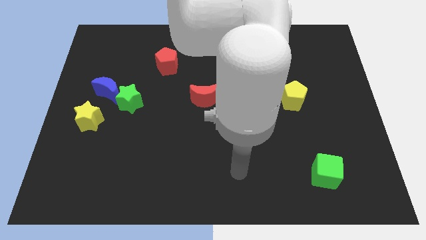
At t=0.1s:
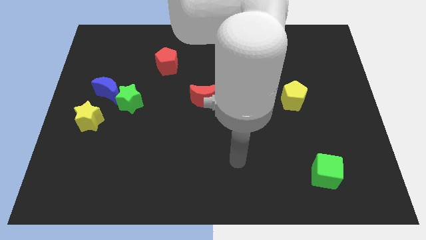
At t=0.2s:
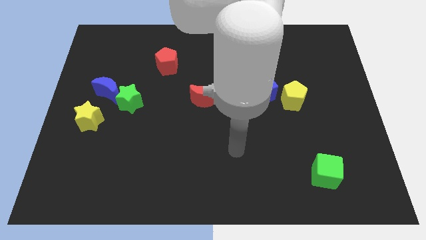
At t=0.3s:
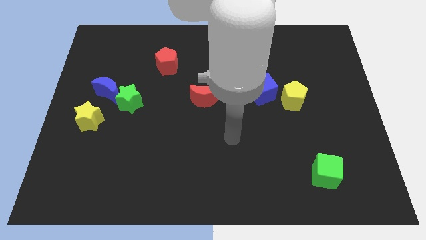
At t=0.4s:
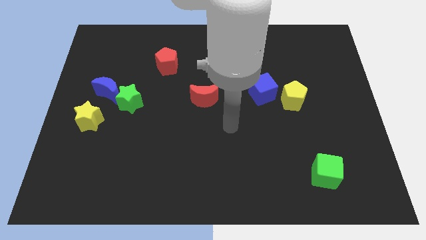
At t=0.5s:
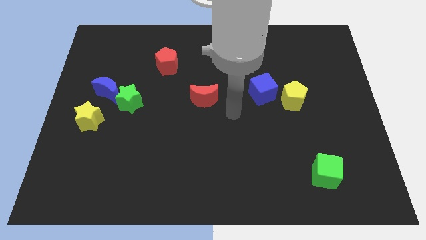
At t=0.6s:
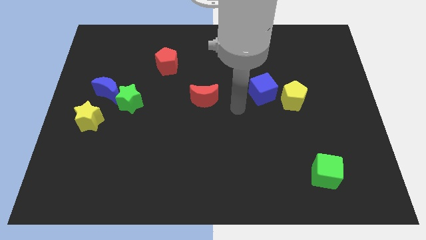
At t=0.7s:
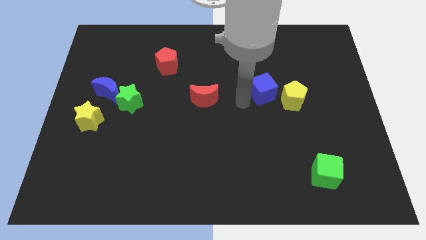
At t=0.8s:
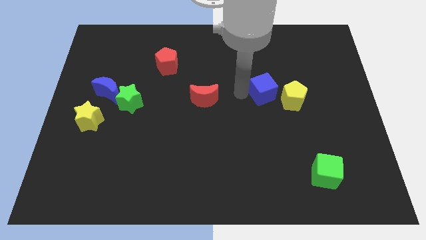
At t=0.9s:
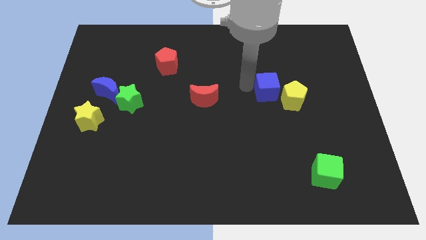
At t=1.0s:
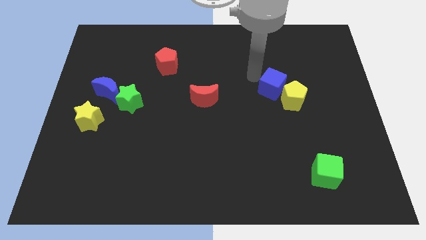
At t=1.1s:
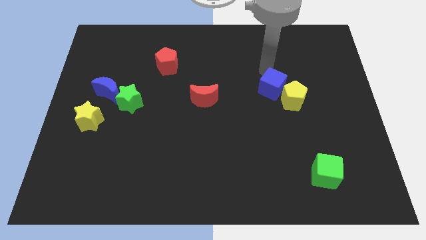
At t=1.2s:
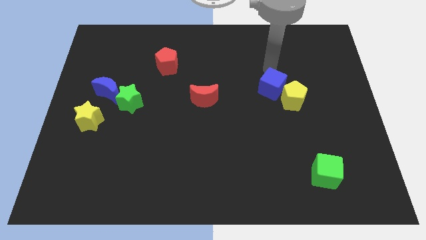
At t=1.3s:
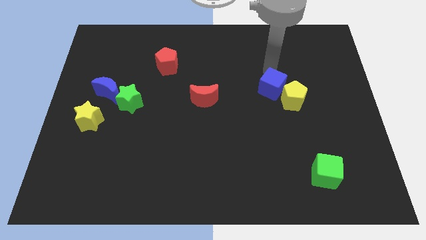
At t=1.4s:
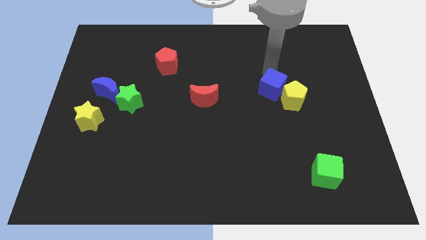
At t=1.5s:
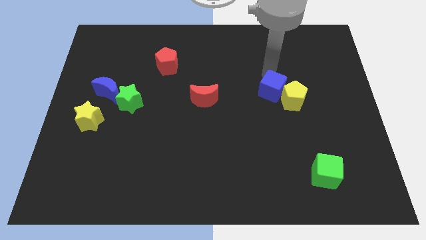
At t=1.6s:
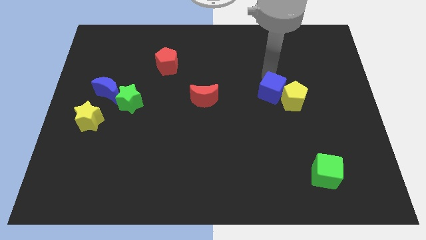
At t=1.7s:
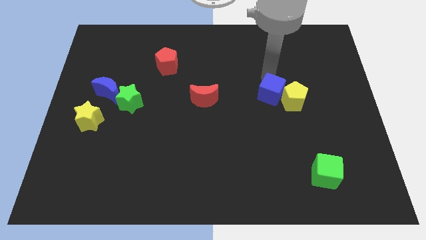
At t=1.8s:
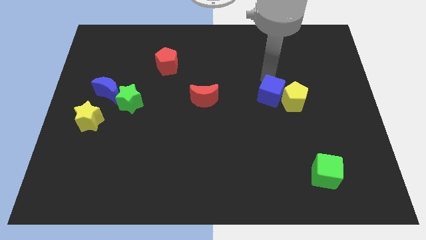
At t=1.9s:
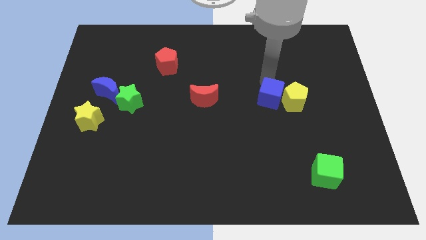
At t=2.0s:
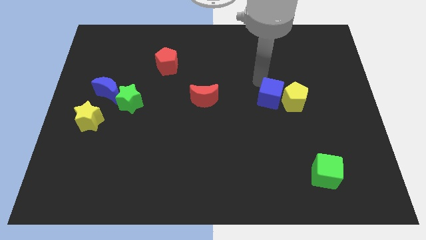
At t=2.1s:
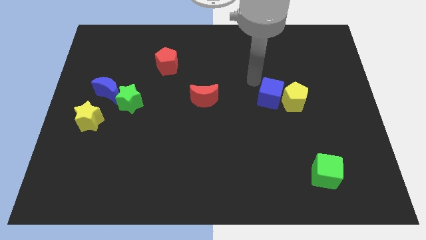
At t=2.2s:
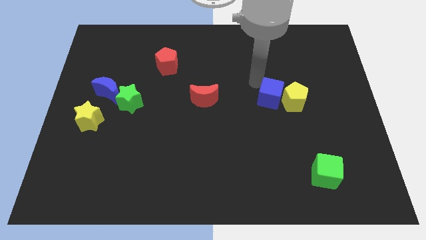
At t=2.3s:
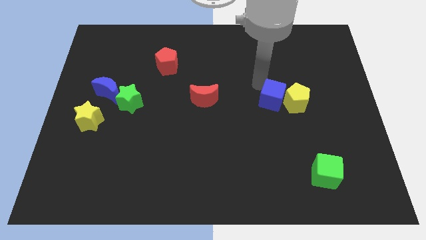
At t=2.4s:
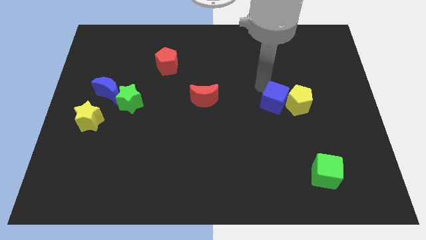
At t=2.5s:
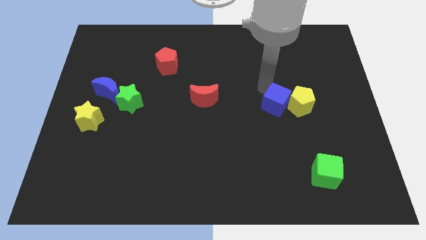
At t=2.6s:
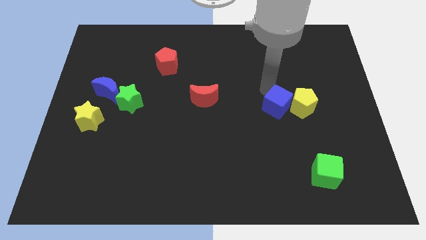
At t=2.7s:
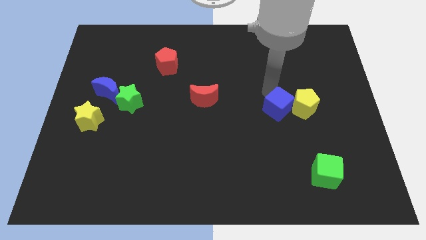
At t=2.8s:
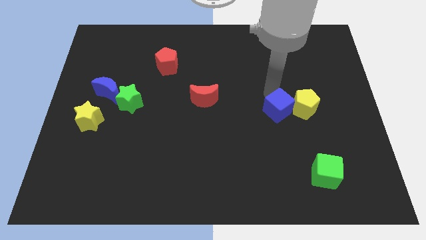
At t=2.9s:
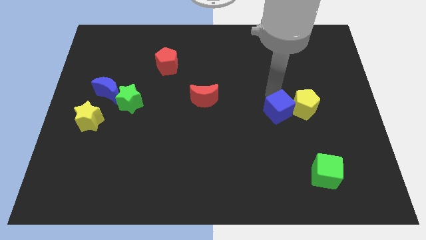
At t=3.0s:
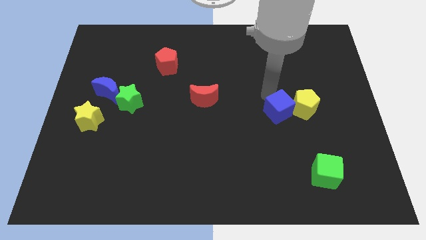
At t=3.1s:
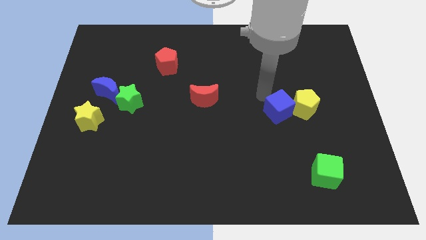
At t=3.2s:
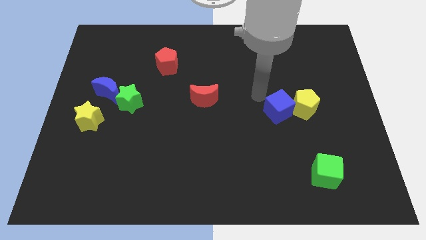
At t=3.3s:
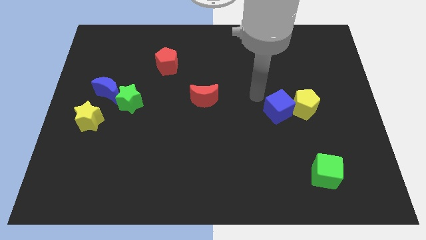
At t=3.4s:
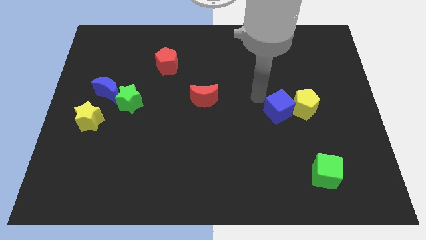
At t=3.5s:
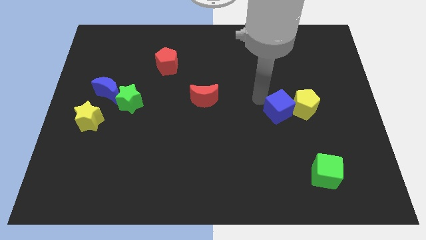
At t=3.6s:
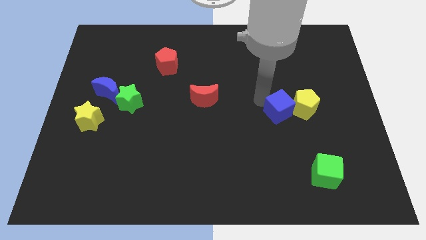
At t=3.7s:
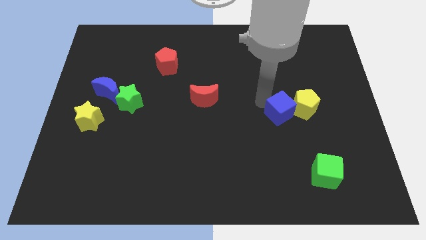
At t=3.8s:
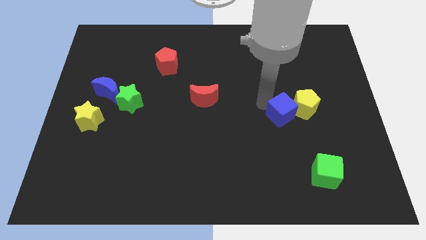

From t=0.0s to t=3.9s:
push the blue cube down and to the right diagonally slightly

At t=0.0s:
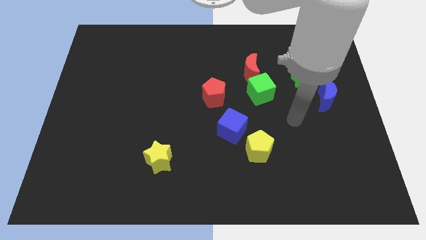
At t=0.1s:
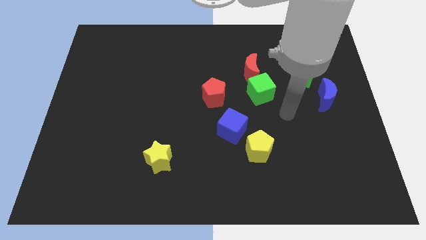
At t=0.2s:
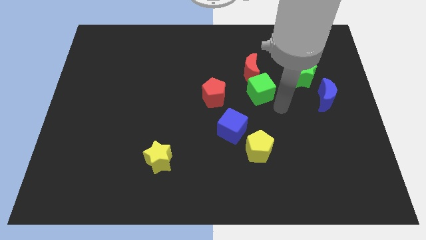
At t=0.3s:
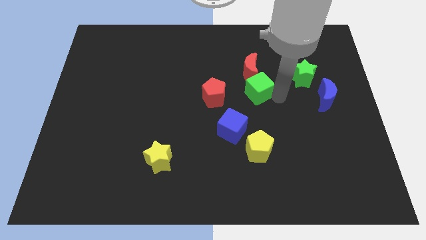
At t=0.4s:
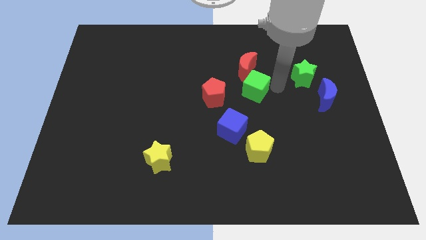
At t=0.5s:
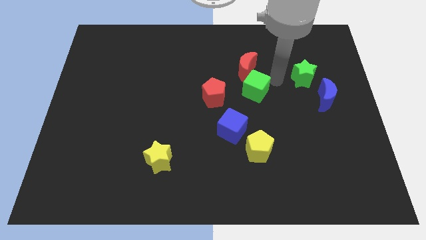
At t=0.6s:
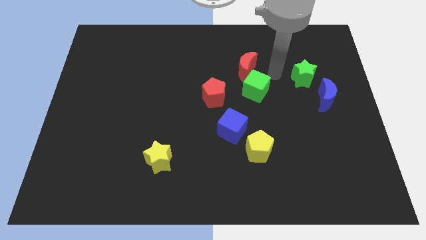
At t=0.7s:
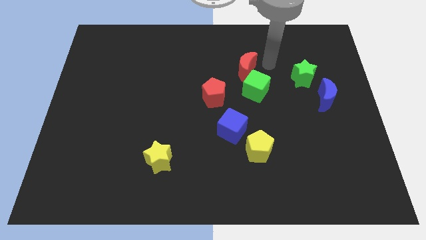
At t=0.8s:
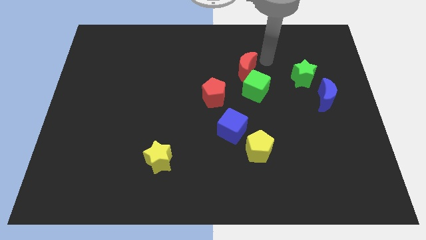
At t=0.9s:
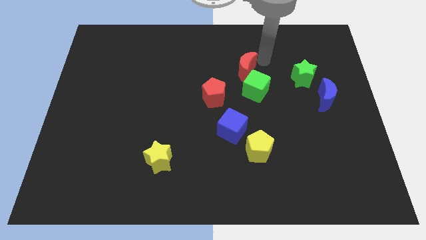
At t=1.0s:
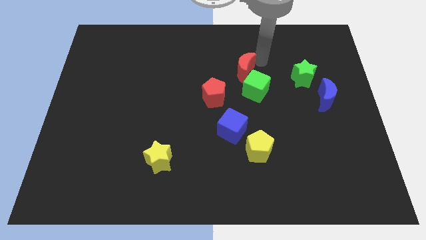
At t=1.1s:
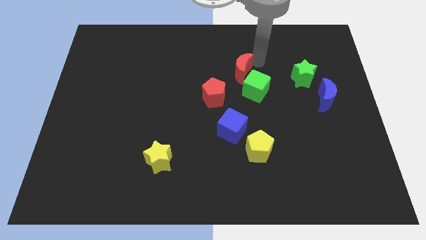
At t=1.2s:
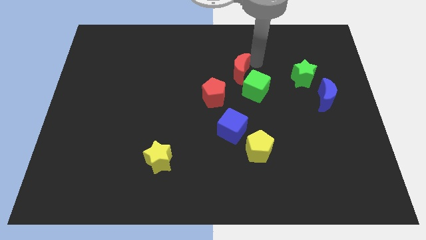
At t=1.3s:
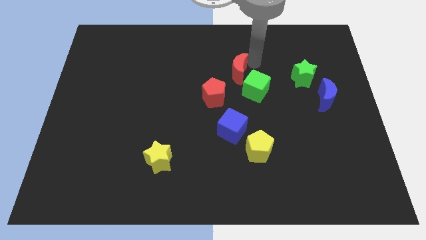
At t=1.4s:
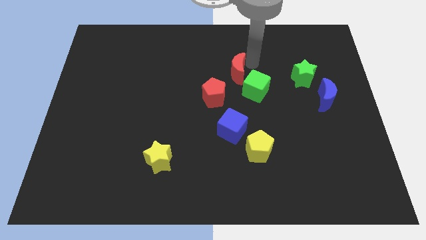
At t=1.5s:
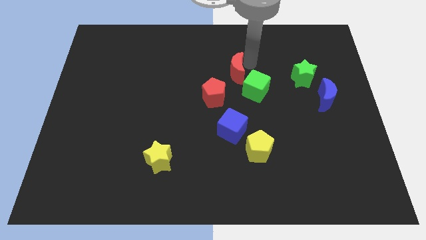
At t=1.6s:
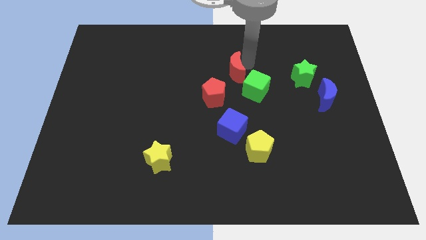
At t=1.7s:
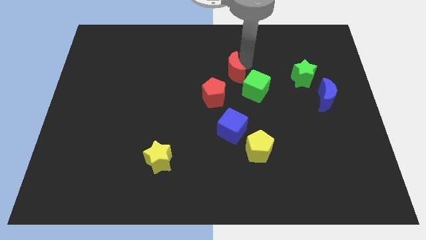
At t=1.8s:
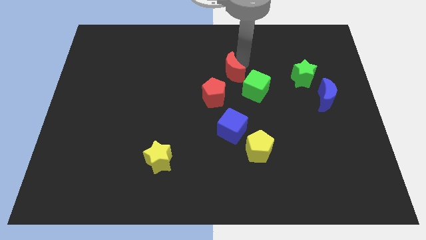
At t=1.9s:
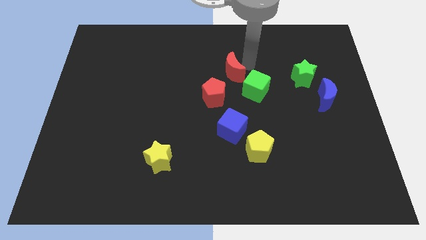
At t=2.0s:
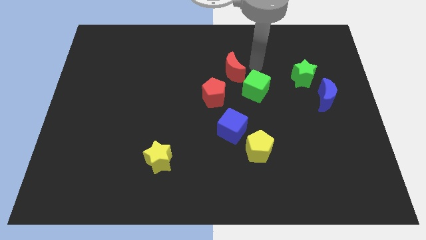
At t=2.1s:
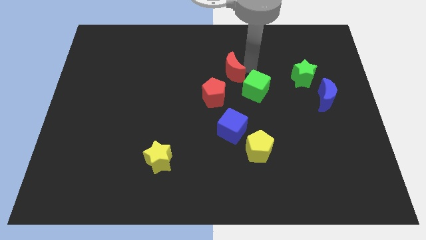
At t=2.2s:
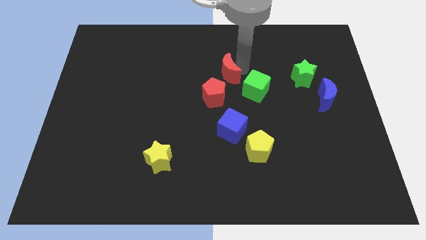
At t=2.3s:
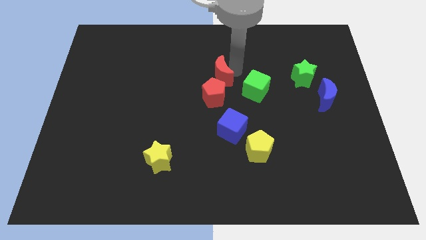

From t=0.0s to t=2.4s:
slightly move the red moon left

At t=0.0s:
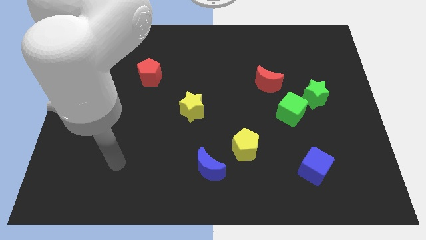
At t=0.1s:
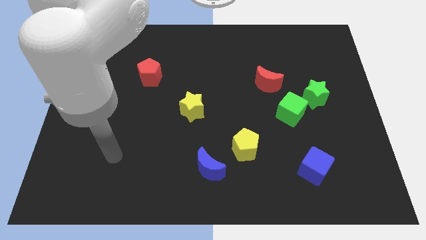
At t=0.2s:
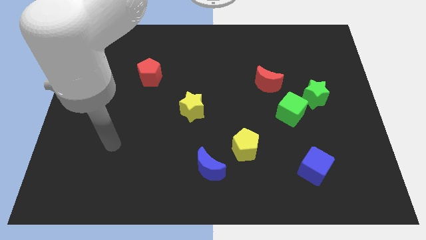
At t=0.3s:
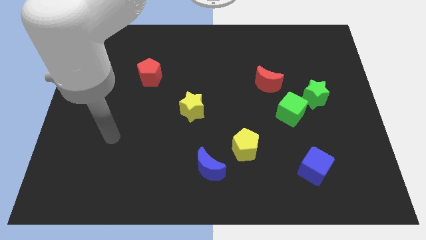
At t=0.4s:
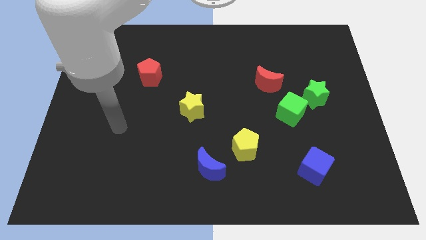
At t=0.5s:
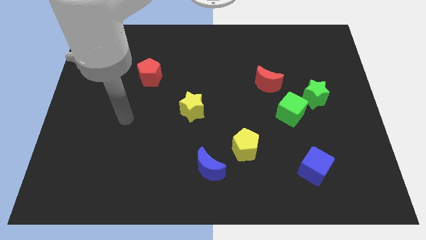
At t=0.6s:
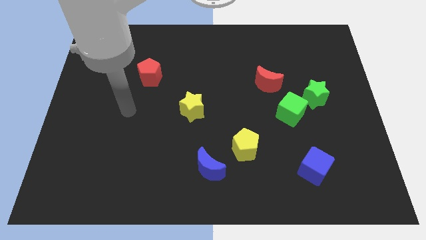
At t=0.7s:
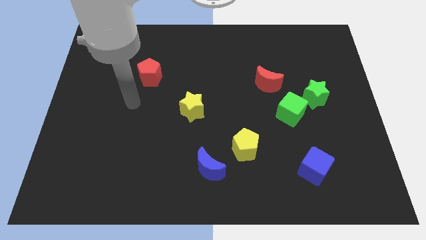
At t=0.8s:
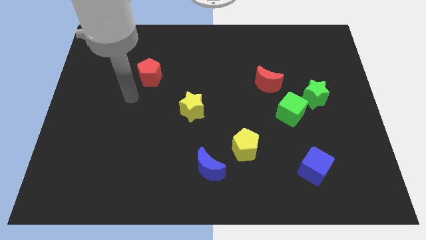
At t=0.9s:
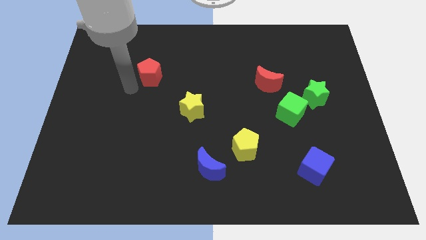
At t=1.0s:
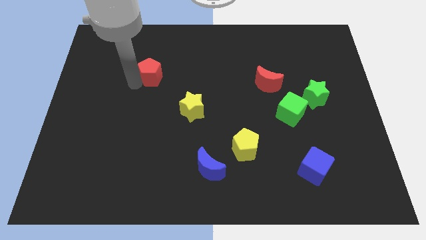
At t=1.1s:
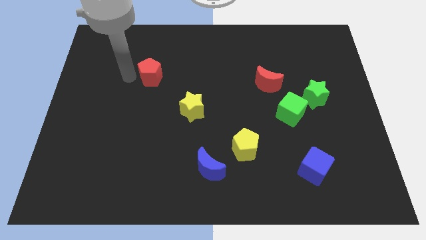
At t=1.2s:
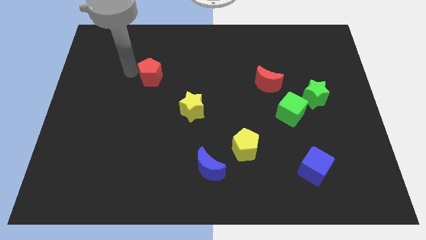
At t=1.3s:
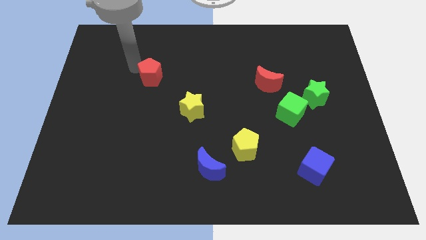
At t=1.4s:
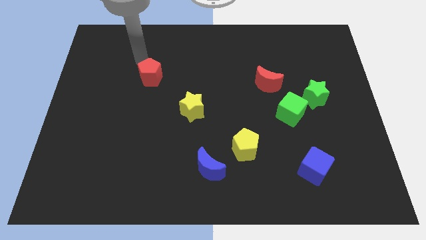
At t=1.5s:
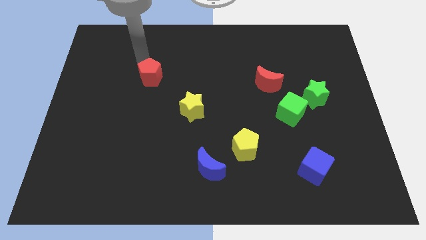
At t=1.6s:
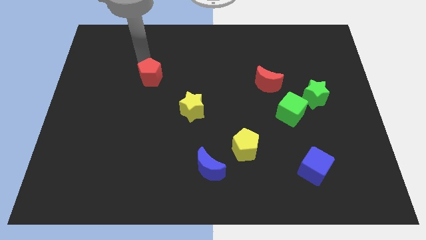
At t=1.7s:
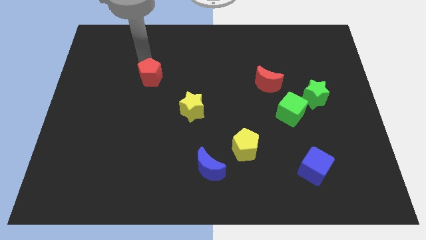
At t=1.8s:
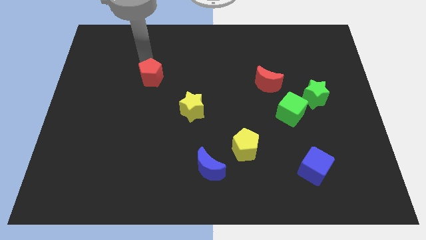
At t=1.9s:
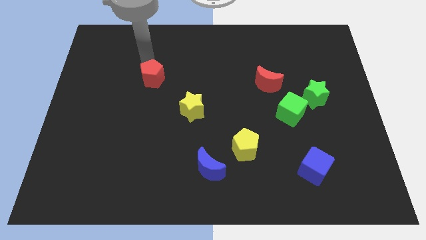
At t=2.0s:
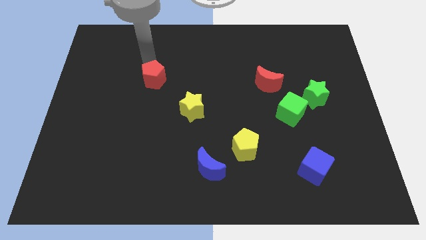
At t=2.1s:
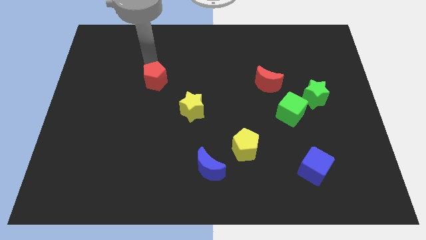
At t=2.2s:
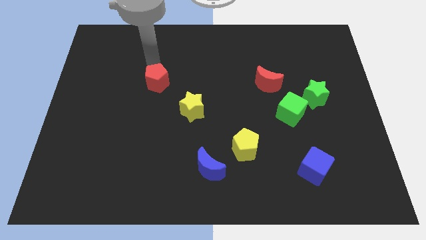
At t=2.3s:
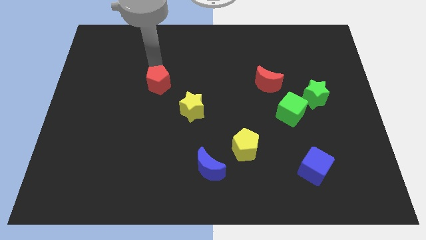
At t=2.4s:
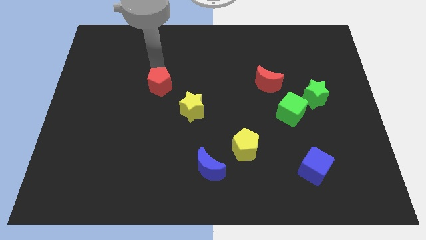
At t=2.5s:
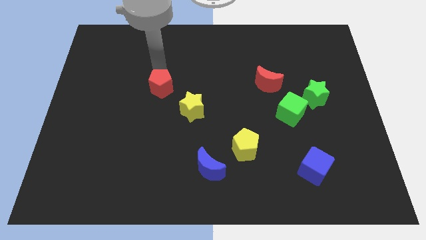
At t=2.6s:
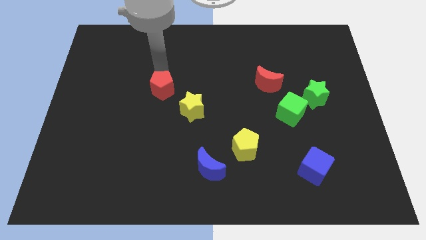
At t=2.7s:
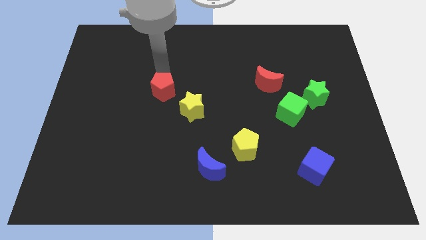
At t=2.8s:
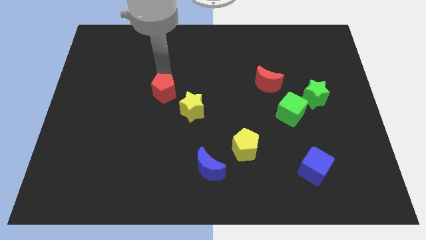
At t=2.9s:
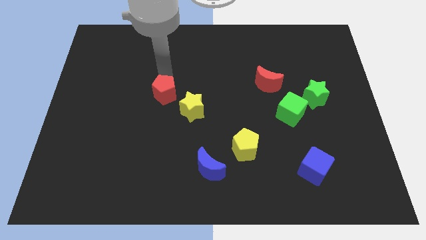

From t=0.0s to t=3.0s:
slide the red pentagon a bit diagonally downwards and right
